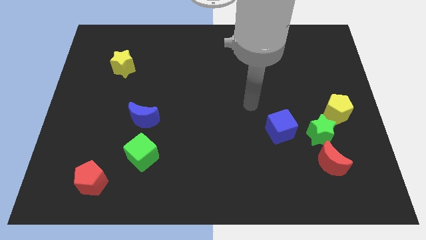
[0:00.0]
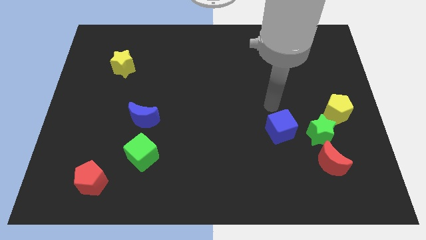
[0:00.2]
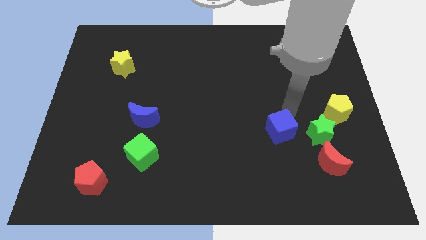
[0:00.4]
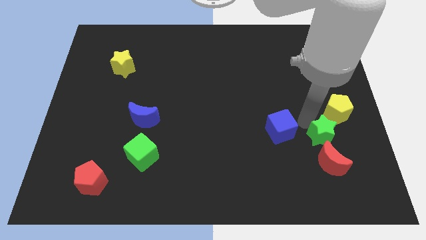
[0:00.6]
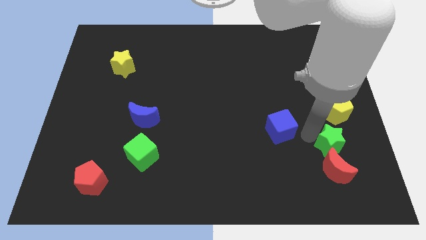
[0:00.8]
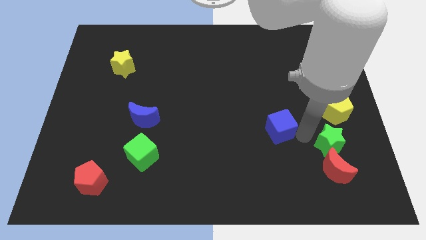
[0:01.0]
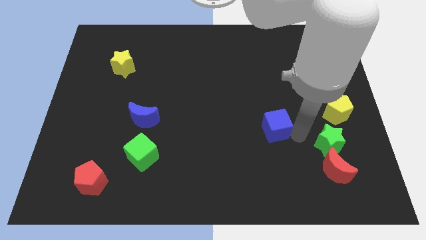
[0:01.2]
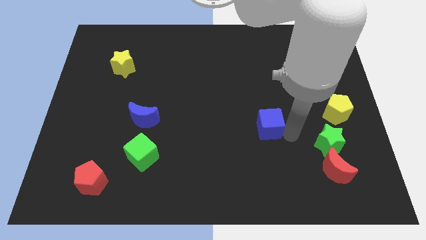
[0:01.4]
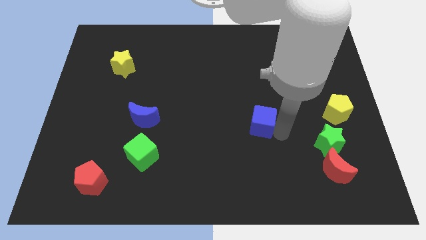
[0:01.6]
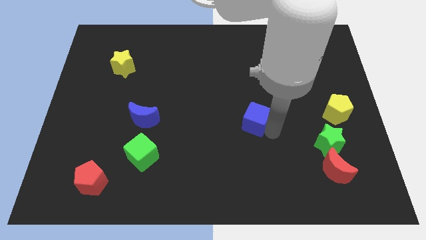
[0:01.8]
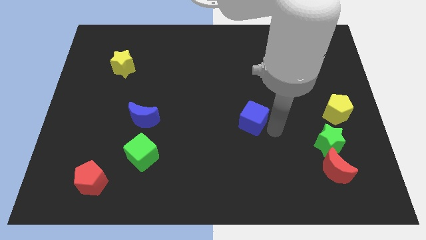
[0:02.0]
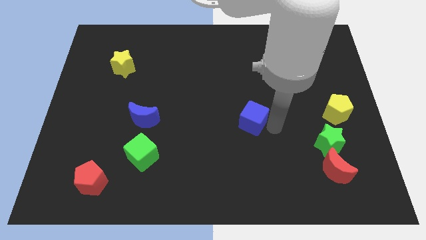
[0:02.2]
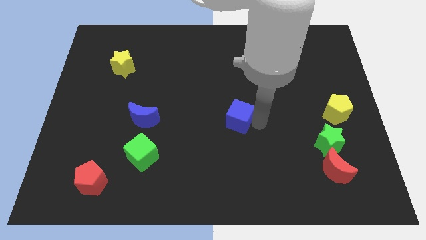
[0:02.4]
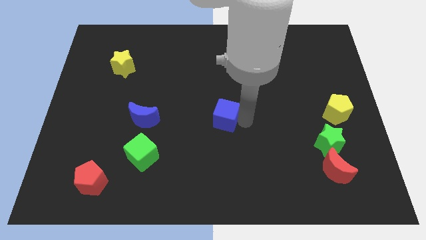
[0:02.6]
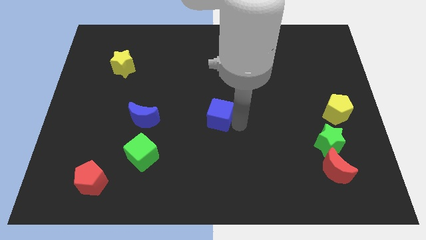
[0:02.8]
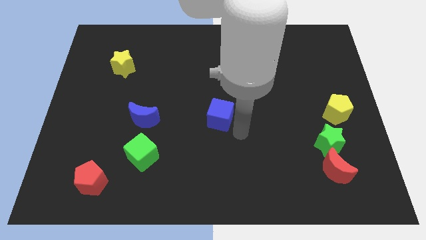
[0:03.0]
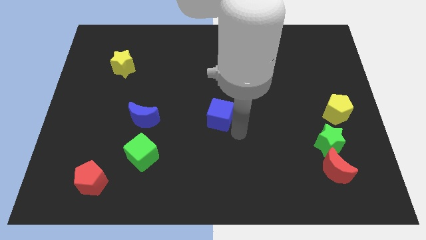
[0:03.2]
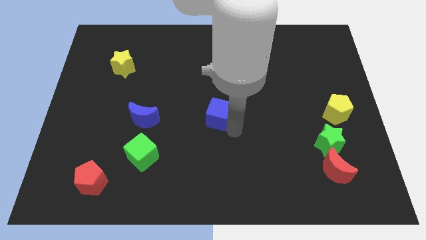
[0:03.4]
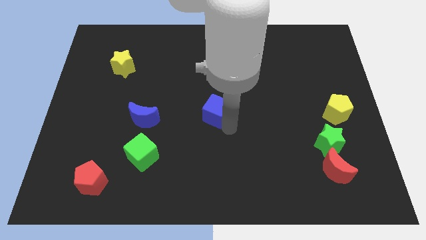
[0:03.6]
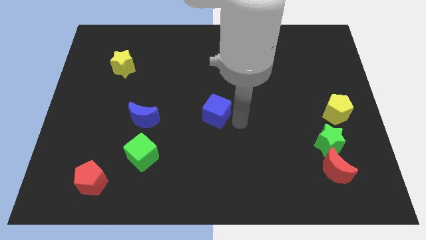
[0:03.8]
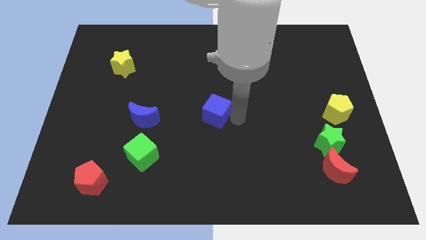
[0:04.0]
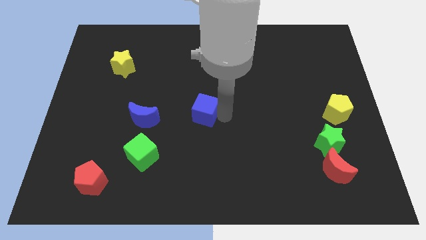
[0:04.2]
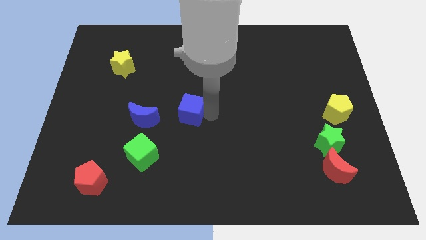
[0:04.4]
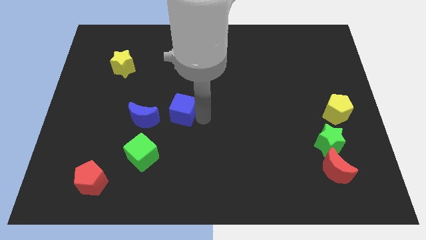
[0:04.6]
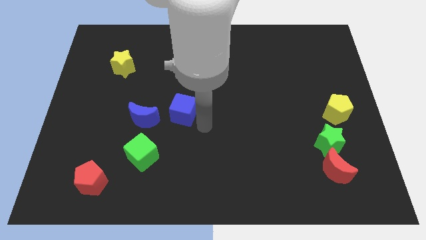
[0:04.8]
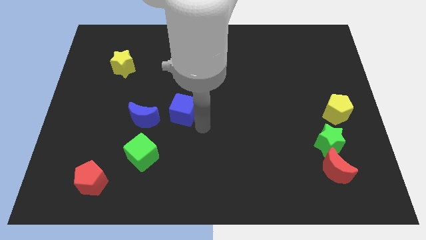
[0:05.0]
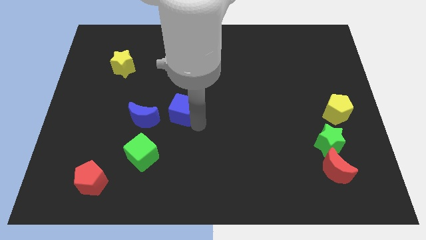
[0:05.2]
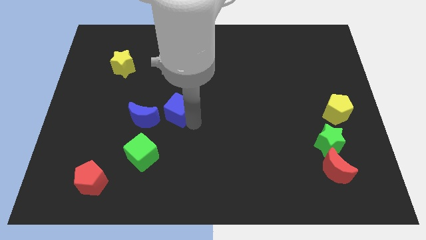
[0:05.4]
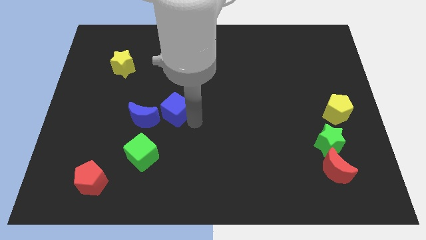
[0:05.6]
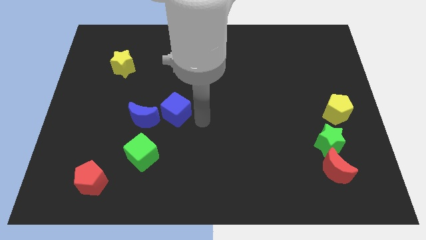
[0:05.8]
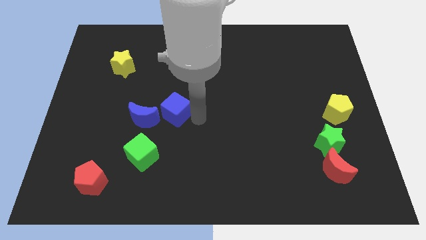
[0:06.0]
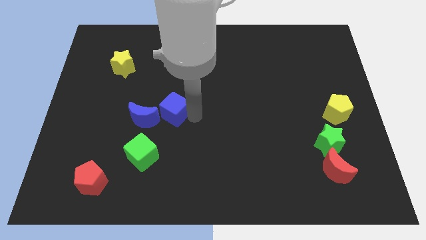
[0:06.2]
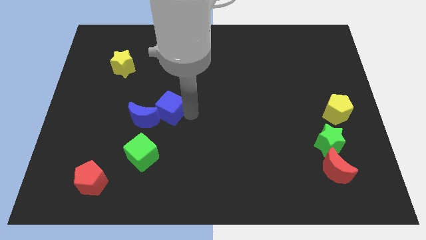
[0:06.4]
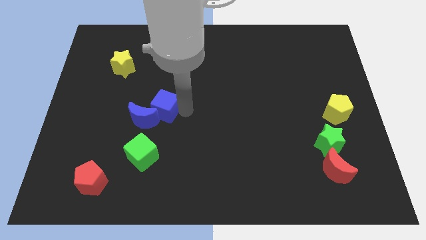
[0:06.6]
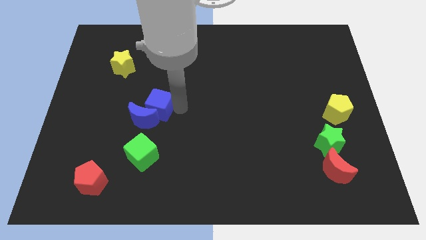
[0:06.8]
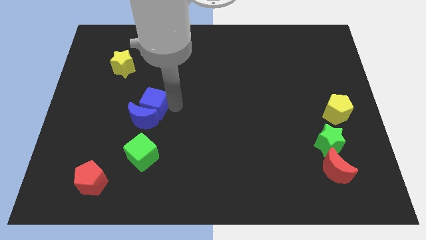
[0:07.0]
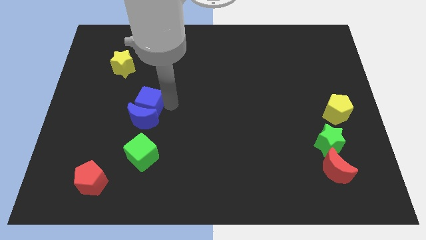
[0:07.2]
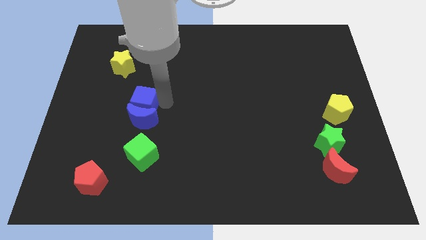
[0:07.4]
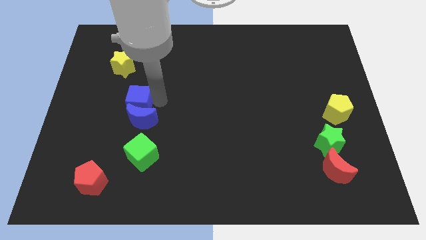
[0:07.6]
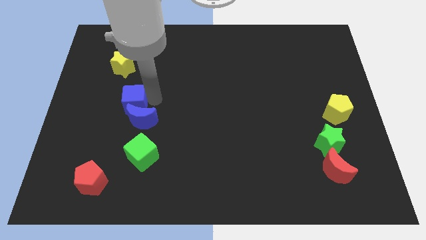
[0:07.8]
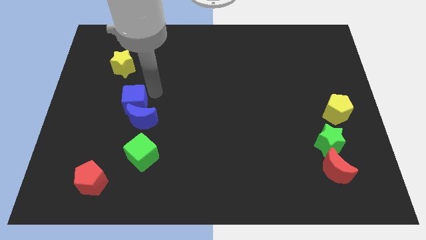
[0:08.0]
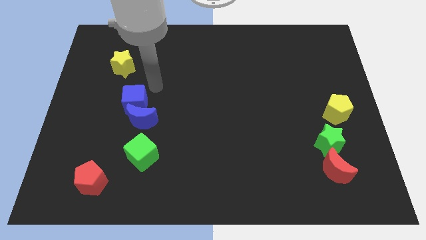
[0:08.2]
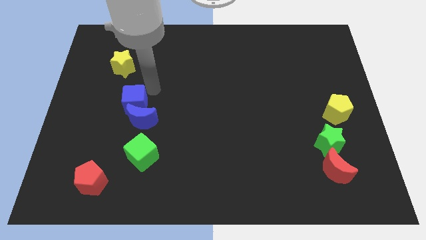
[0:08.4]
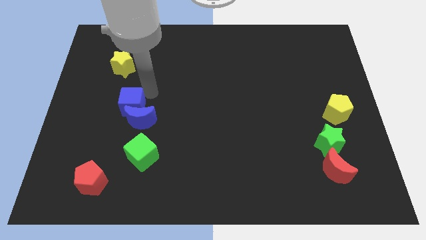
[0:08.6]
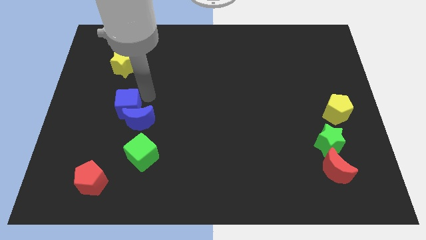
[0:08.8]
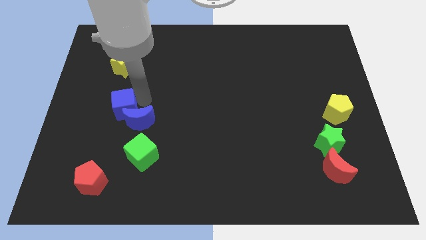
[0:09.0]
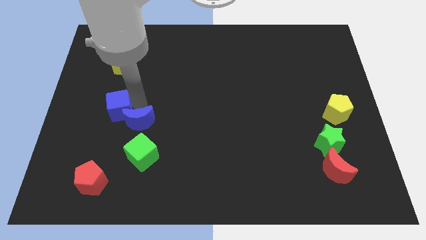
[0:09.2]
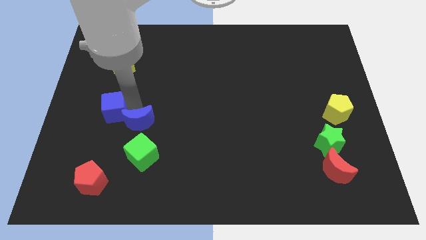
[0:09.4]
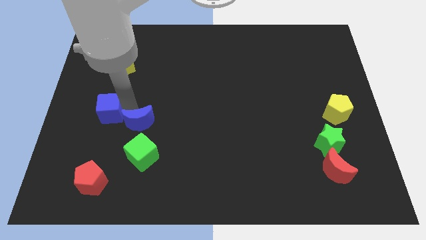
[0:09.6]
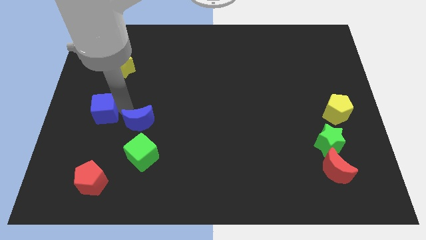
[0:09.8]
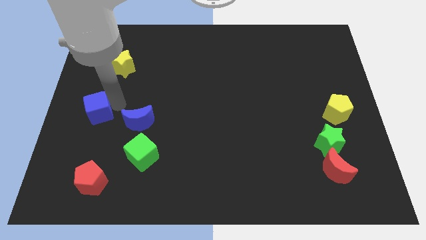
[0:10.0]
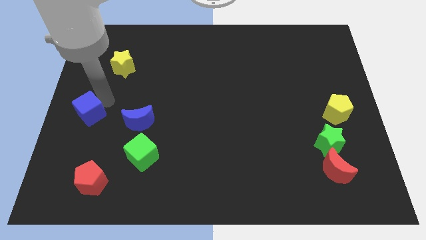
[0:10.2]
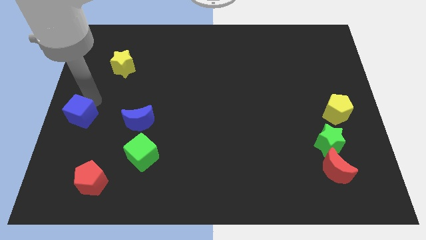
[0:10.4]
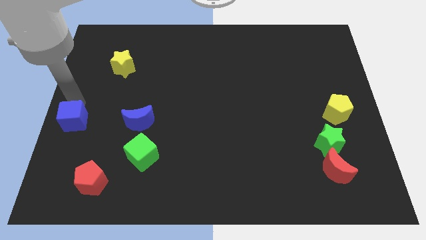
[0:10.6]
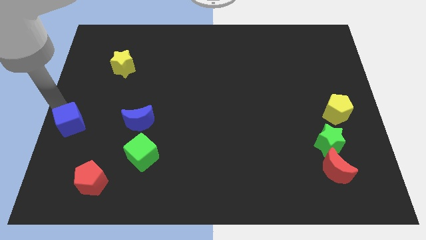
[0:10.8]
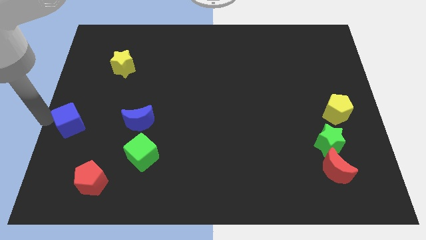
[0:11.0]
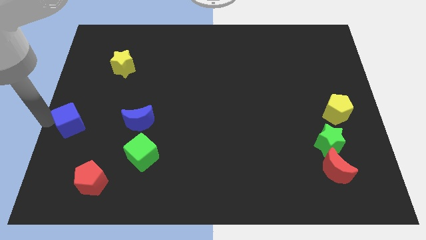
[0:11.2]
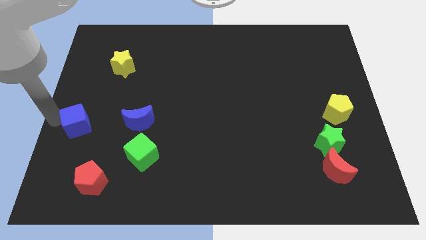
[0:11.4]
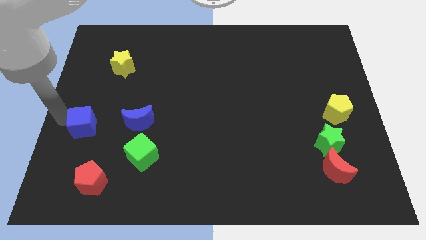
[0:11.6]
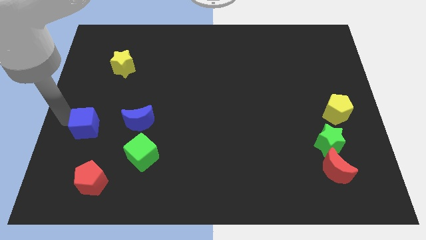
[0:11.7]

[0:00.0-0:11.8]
put the blue cube to the top side of the red pentagon

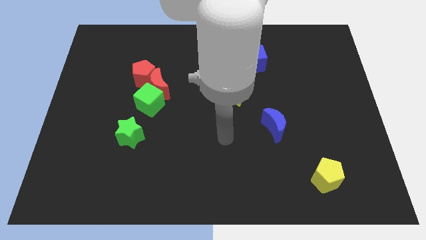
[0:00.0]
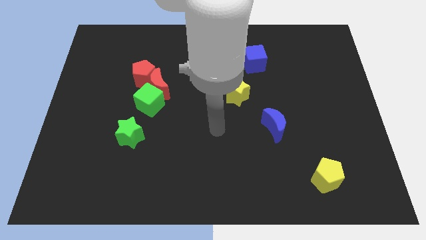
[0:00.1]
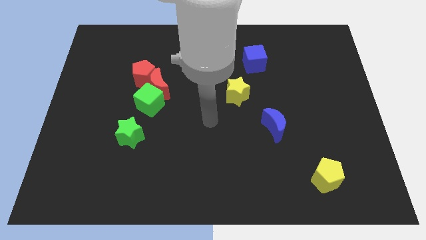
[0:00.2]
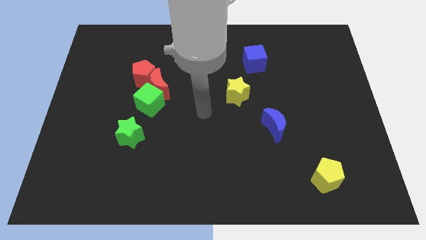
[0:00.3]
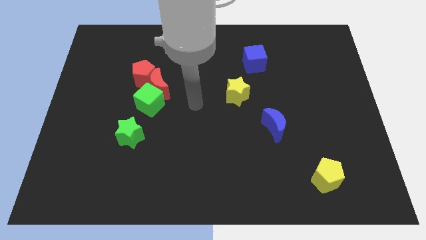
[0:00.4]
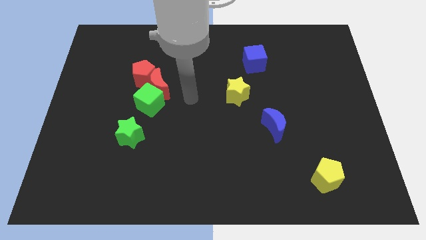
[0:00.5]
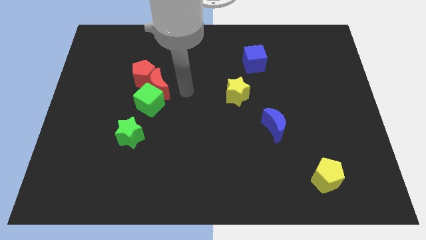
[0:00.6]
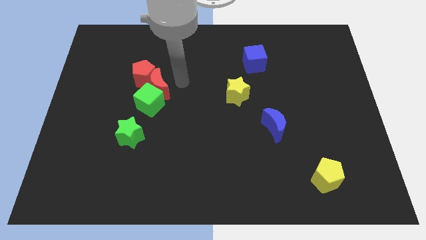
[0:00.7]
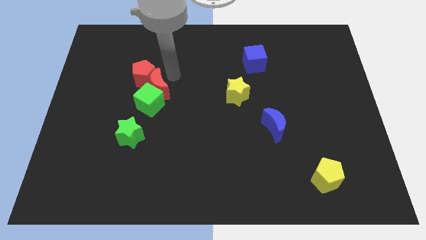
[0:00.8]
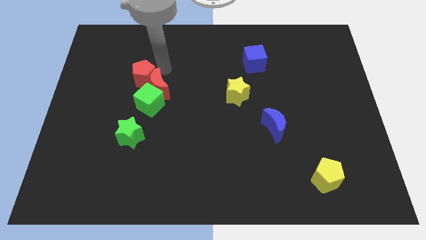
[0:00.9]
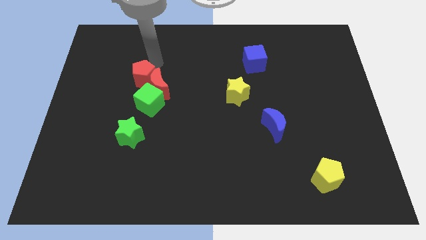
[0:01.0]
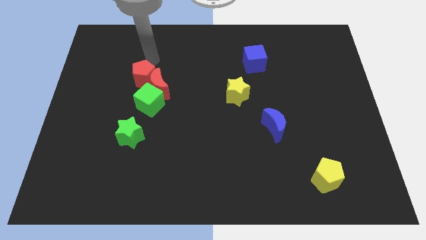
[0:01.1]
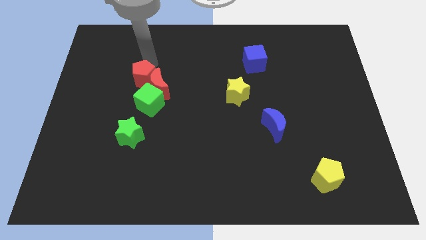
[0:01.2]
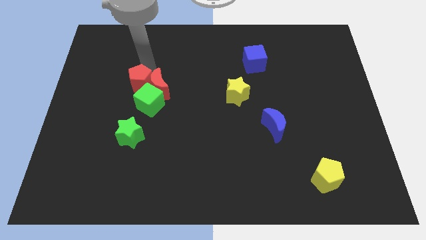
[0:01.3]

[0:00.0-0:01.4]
move the red pentagon to the top of the green star
